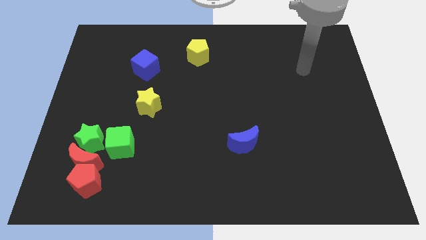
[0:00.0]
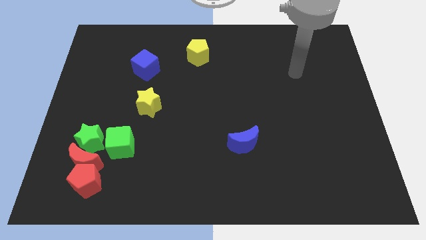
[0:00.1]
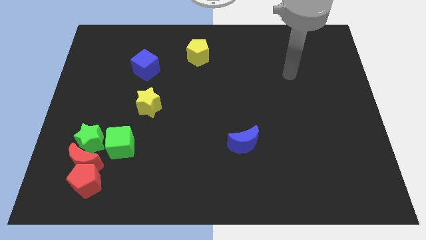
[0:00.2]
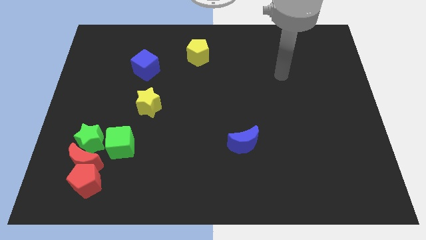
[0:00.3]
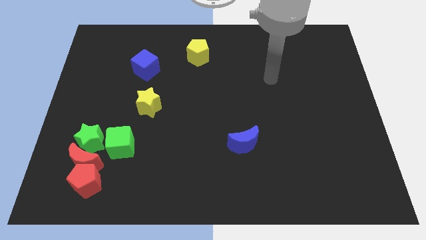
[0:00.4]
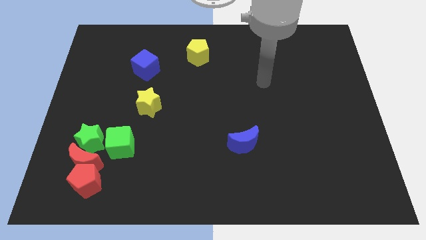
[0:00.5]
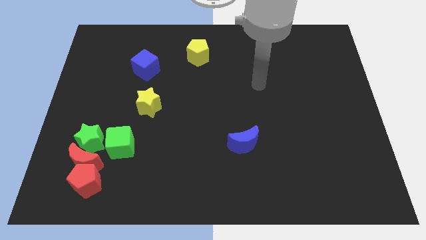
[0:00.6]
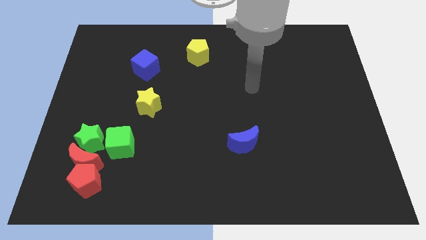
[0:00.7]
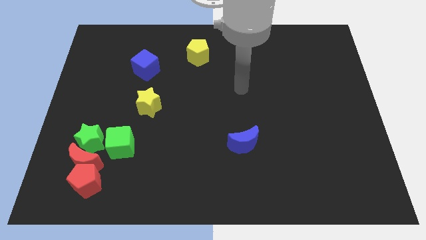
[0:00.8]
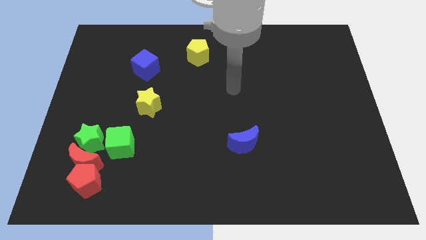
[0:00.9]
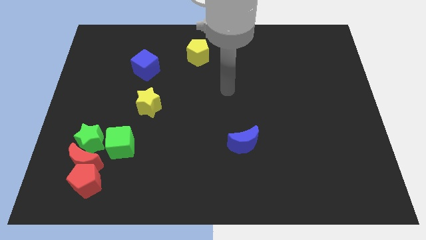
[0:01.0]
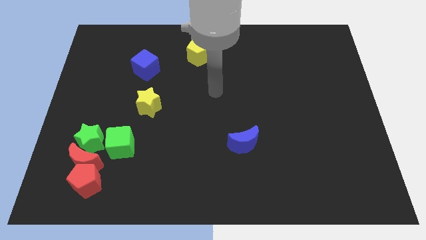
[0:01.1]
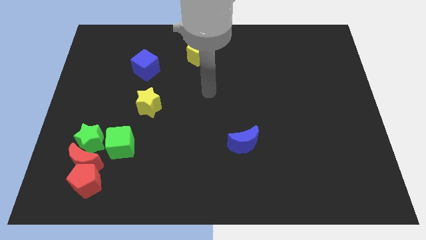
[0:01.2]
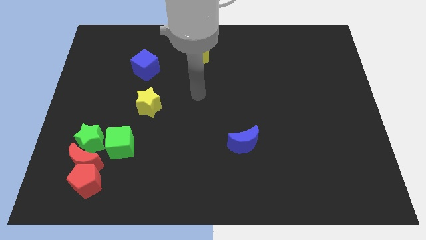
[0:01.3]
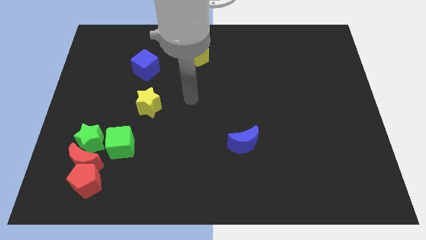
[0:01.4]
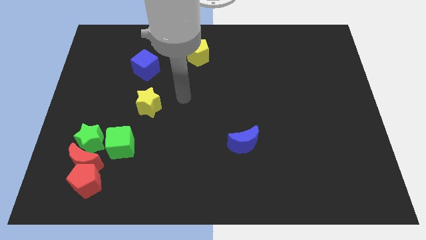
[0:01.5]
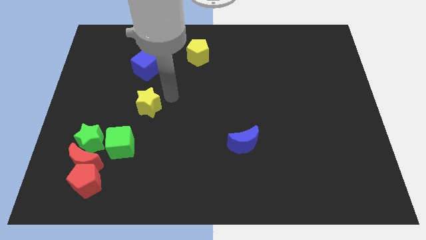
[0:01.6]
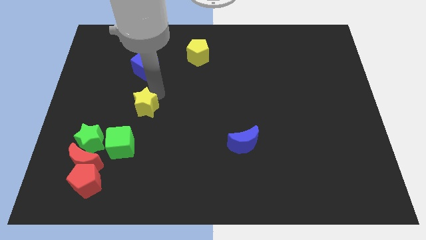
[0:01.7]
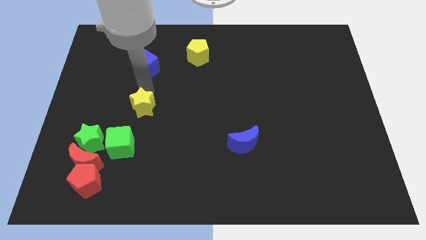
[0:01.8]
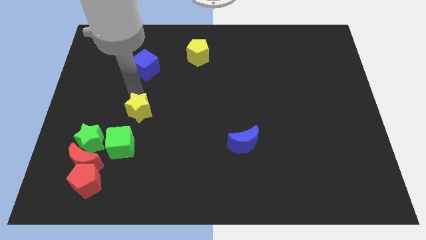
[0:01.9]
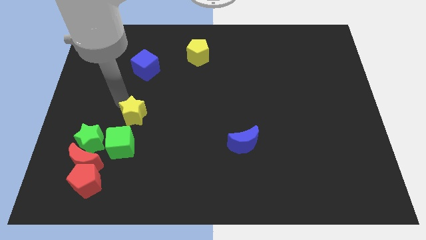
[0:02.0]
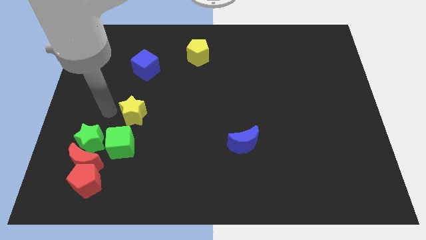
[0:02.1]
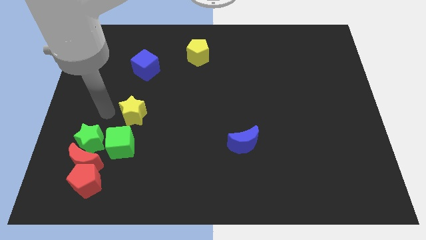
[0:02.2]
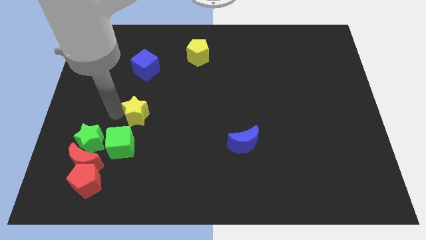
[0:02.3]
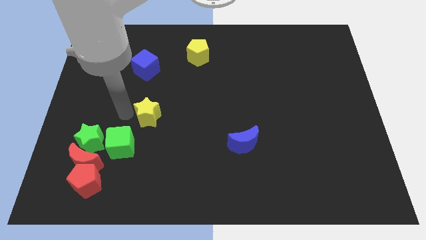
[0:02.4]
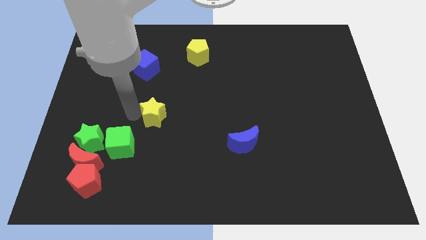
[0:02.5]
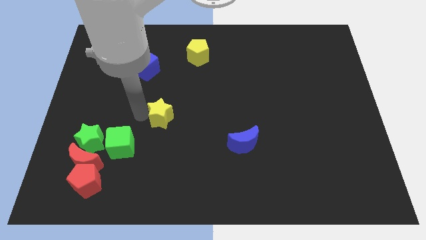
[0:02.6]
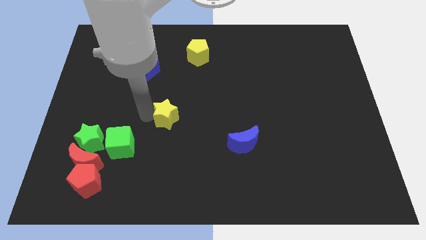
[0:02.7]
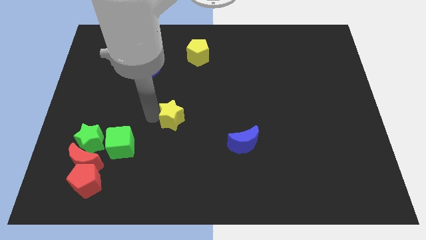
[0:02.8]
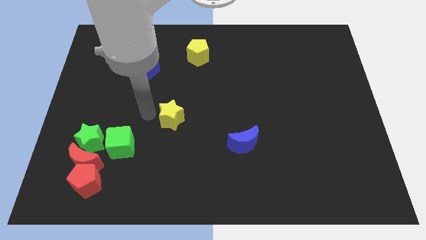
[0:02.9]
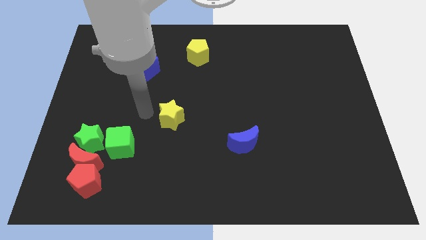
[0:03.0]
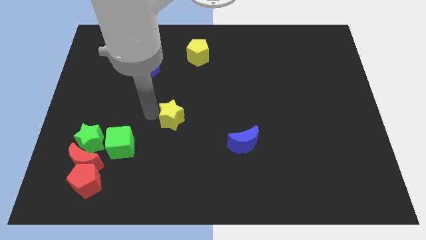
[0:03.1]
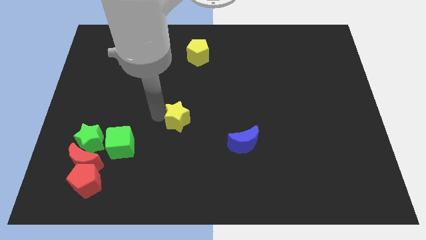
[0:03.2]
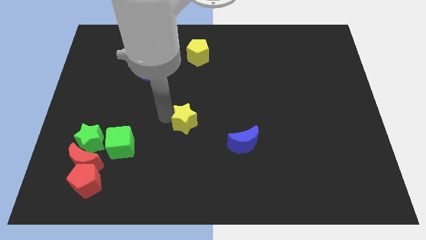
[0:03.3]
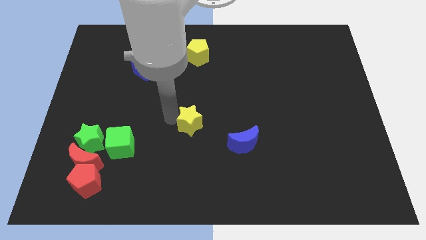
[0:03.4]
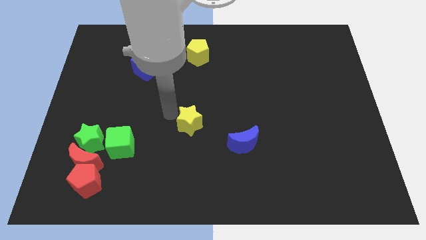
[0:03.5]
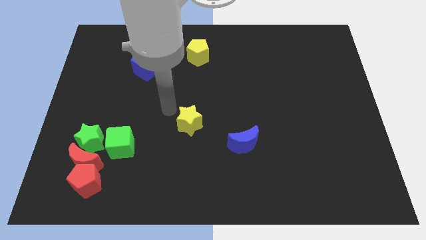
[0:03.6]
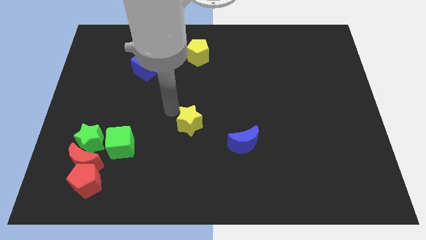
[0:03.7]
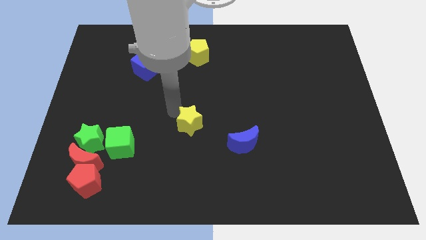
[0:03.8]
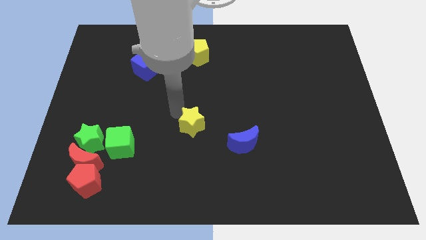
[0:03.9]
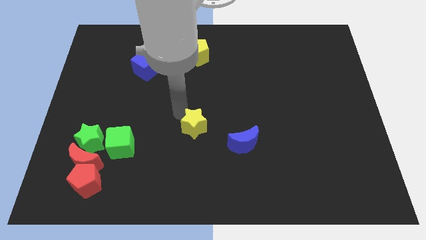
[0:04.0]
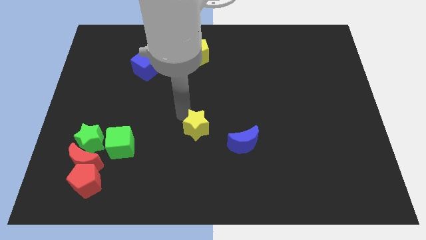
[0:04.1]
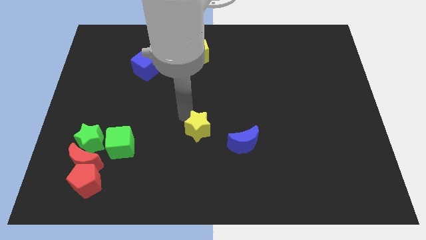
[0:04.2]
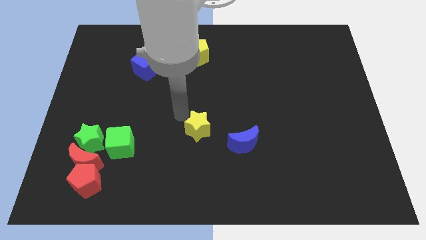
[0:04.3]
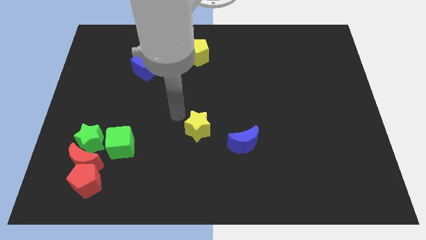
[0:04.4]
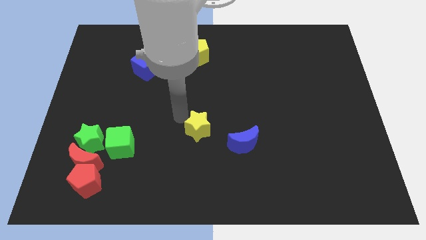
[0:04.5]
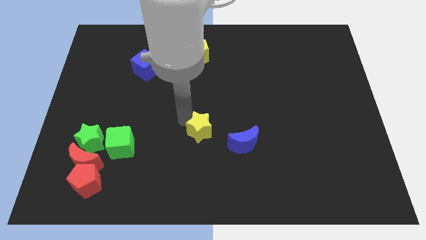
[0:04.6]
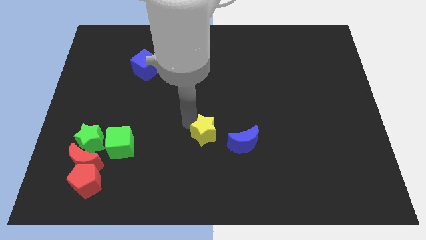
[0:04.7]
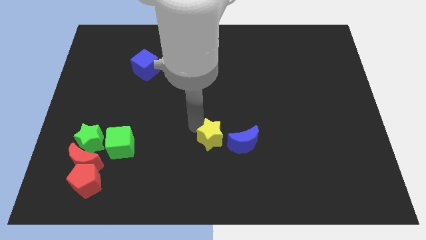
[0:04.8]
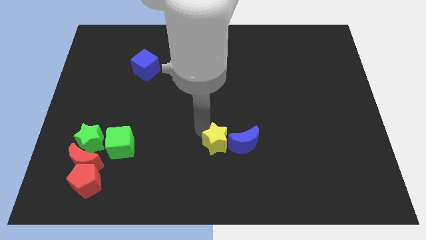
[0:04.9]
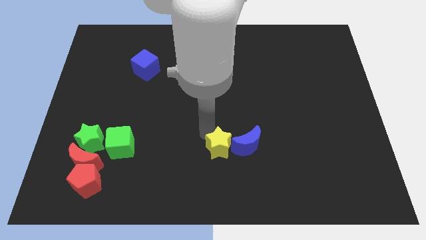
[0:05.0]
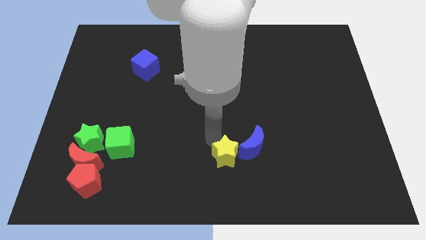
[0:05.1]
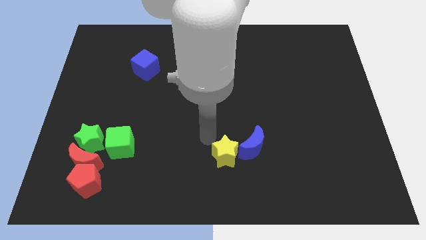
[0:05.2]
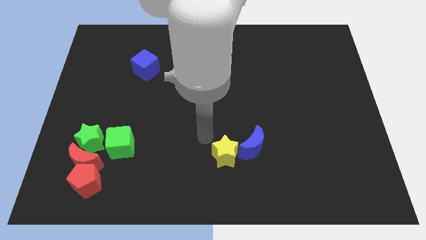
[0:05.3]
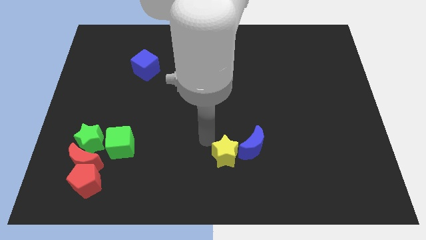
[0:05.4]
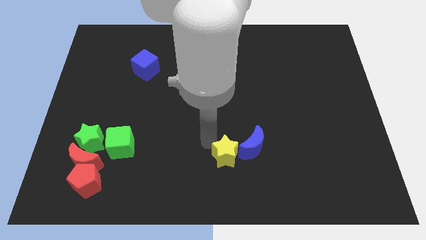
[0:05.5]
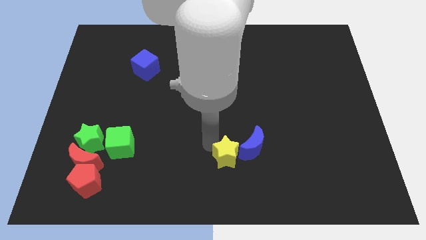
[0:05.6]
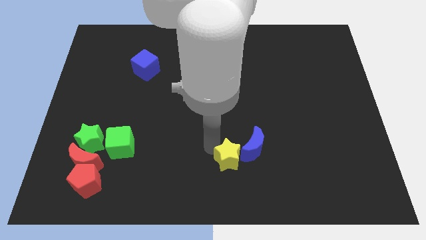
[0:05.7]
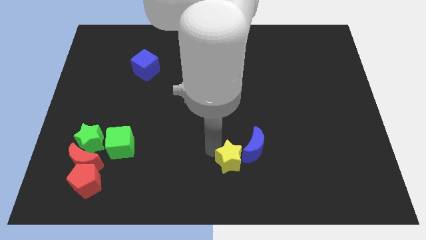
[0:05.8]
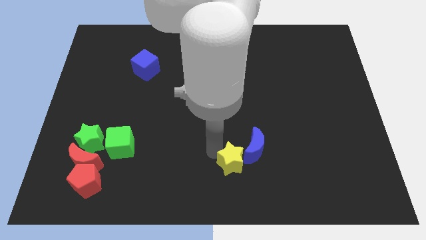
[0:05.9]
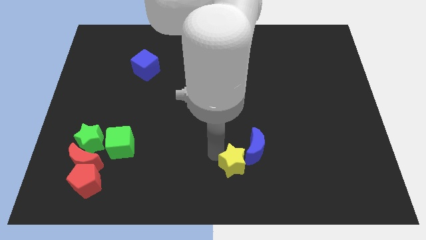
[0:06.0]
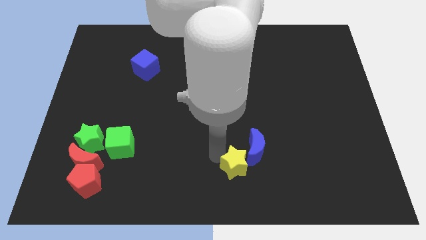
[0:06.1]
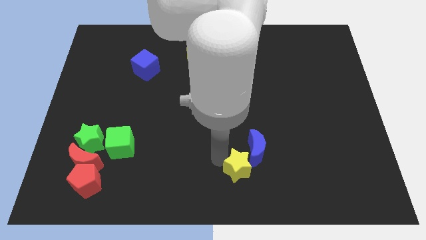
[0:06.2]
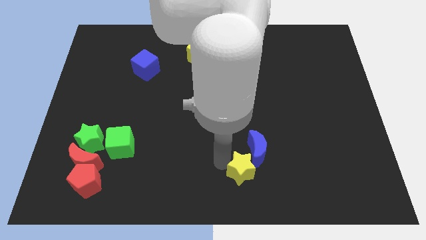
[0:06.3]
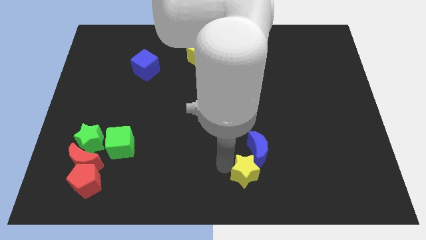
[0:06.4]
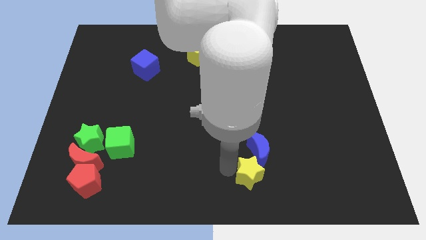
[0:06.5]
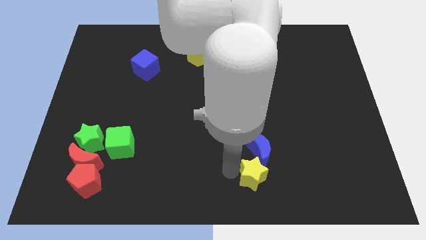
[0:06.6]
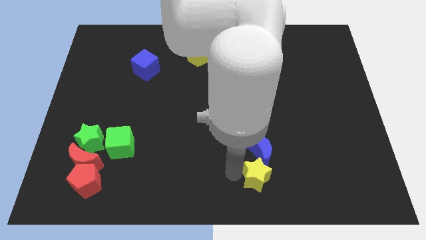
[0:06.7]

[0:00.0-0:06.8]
push the yellow star diagonally down and to the right of the blue moon
